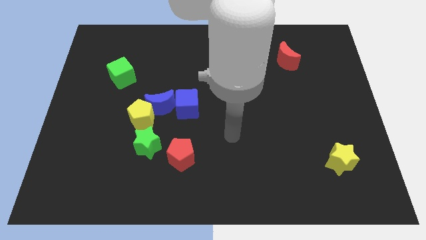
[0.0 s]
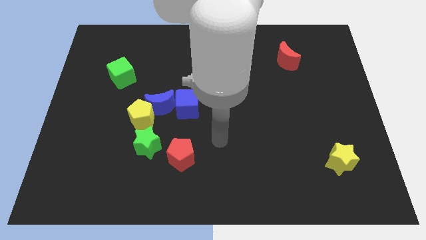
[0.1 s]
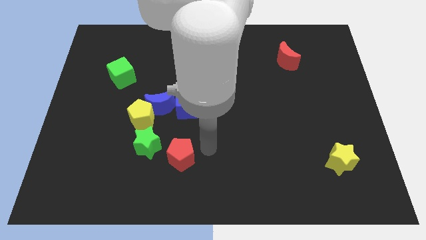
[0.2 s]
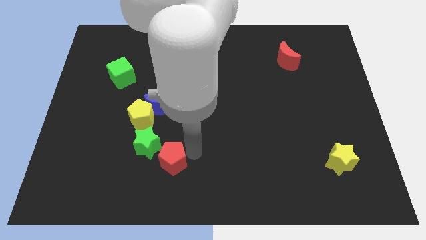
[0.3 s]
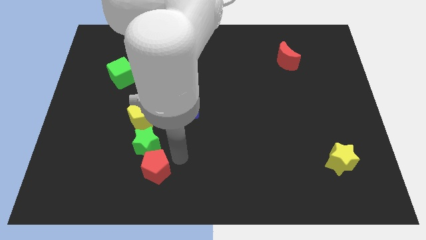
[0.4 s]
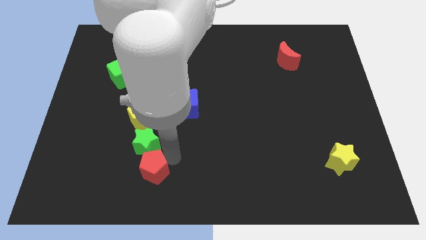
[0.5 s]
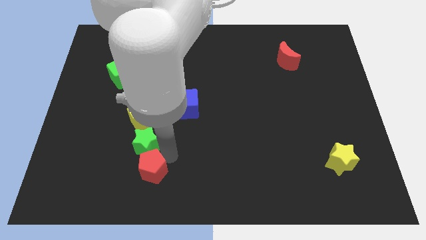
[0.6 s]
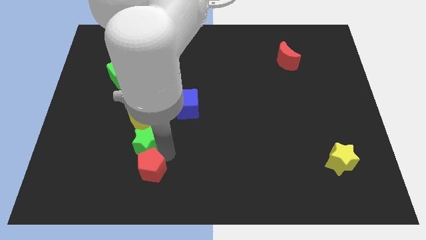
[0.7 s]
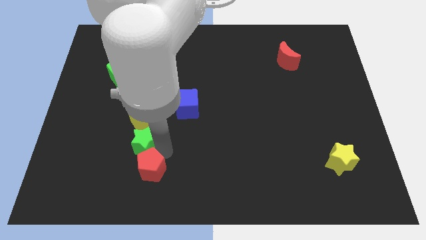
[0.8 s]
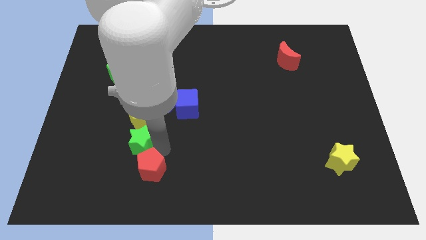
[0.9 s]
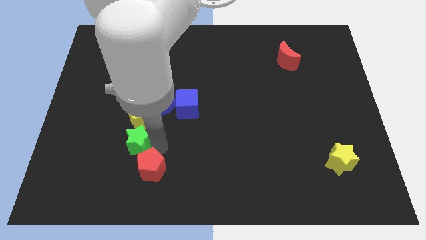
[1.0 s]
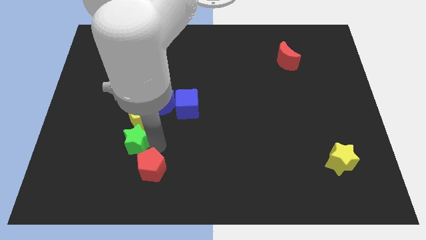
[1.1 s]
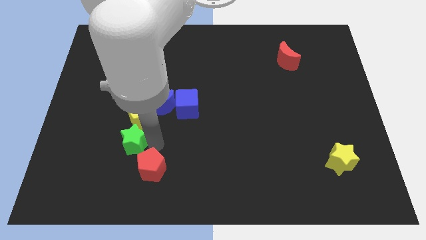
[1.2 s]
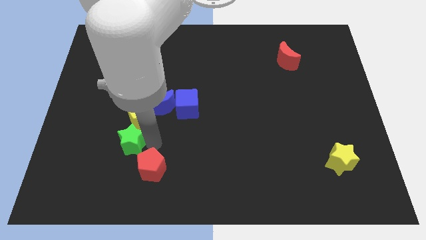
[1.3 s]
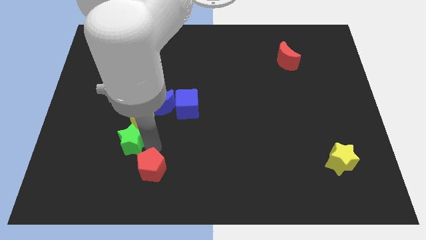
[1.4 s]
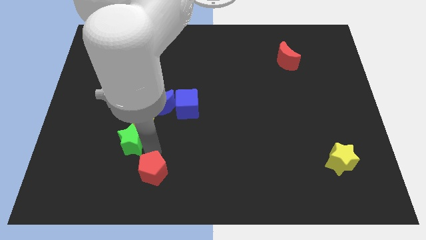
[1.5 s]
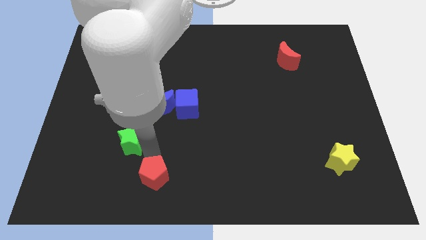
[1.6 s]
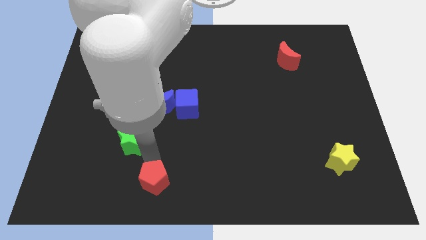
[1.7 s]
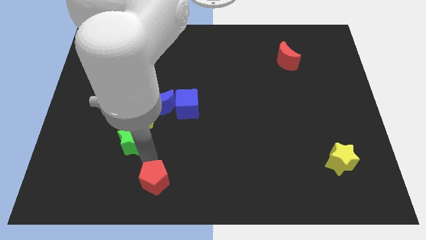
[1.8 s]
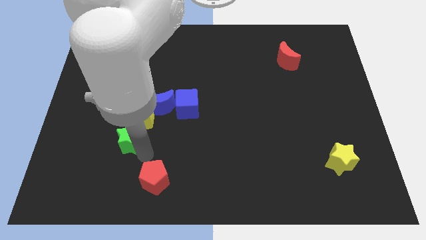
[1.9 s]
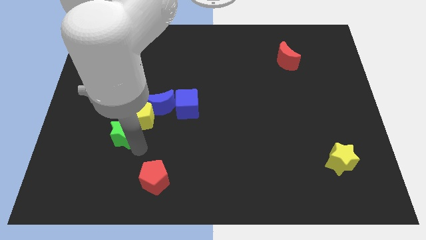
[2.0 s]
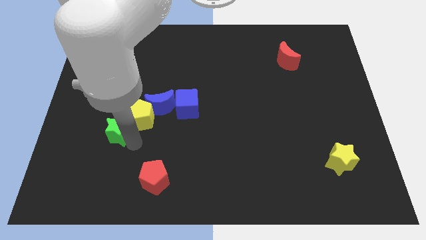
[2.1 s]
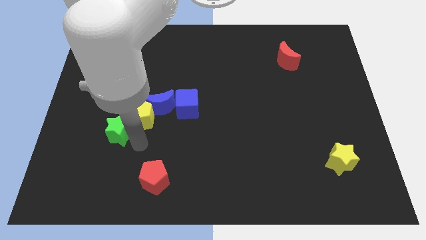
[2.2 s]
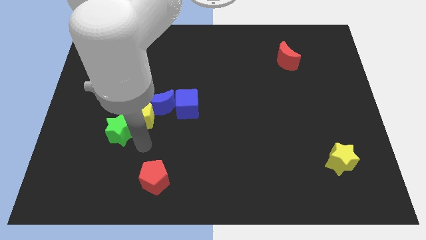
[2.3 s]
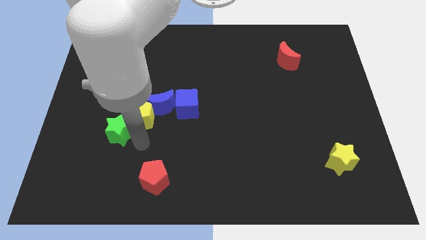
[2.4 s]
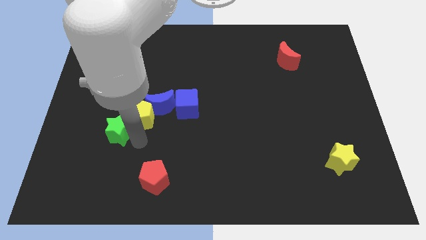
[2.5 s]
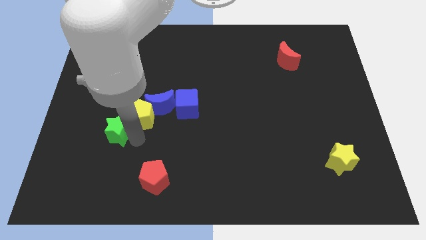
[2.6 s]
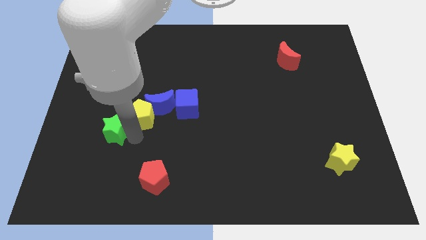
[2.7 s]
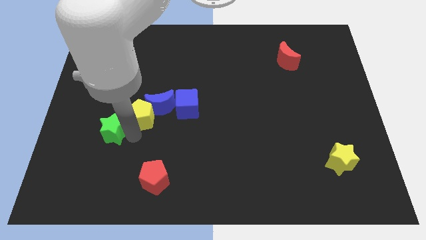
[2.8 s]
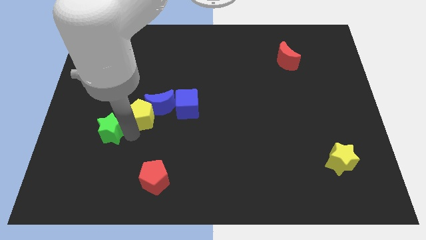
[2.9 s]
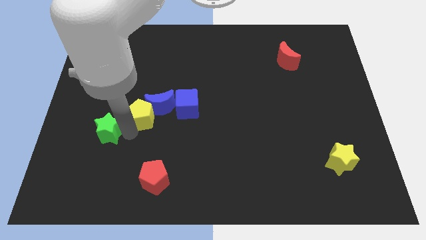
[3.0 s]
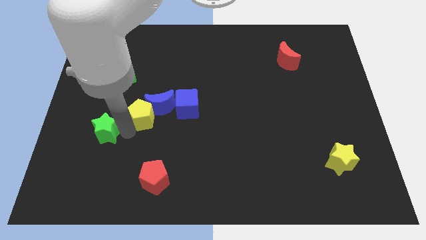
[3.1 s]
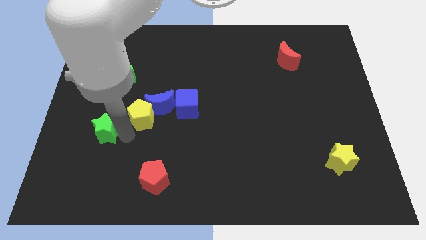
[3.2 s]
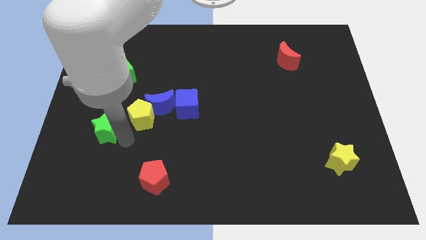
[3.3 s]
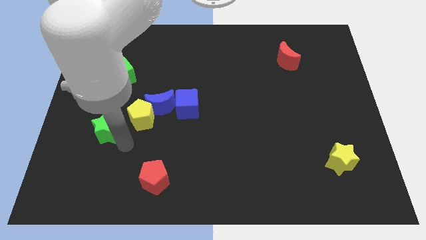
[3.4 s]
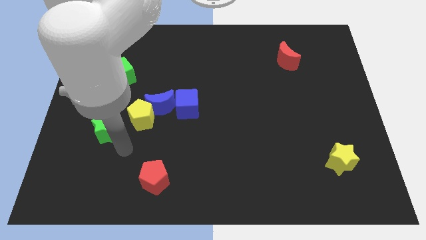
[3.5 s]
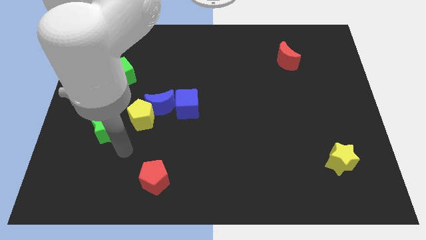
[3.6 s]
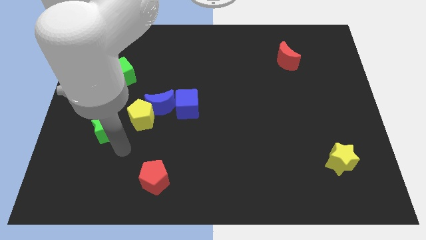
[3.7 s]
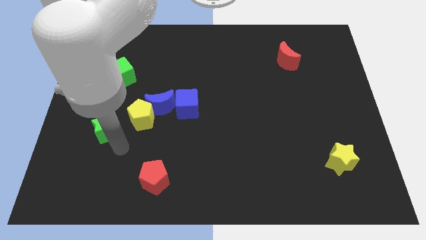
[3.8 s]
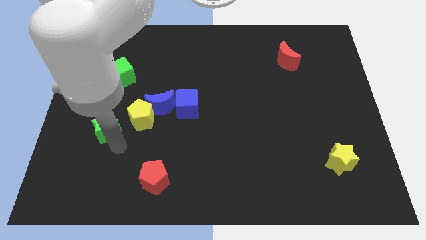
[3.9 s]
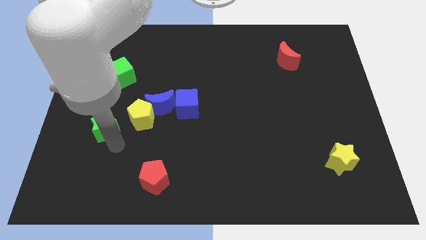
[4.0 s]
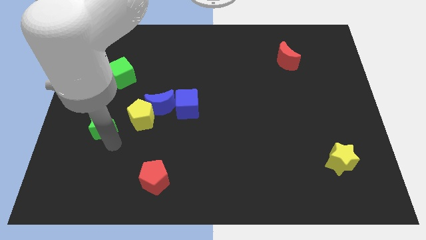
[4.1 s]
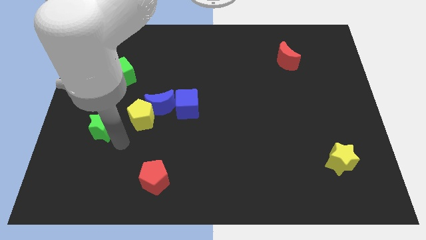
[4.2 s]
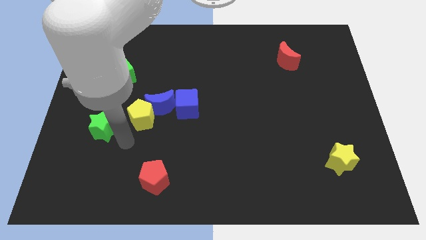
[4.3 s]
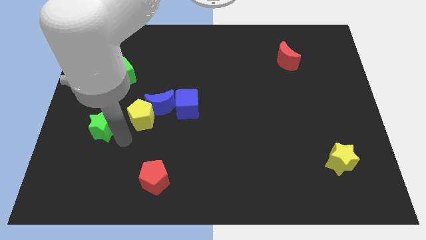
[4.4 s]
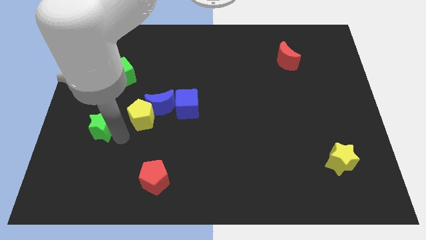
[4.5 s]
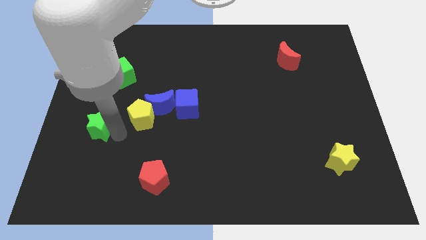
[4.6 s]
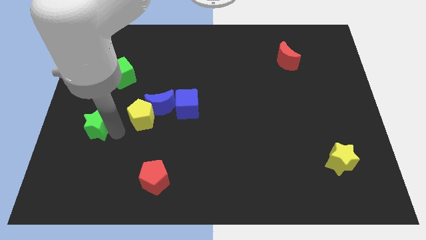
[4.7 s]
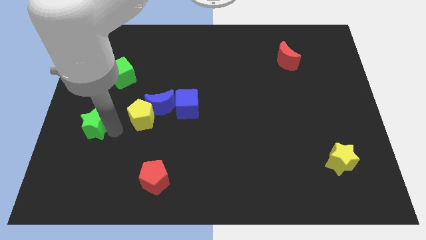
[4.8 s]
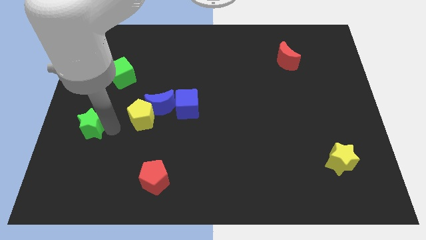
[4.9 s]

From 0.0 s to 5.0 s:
put the green star to the left side

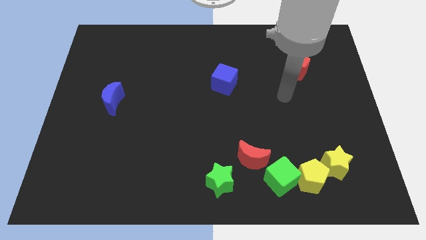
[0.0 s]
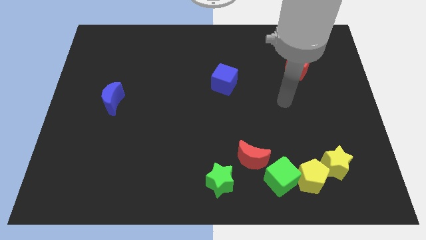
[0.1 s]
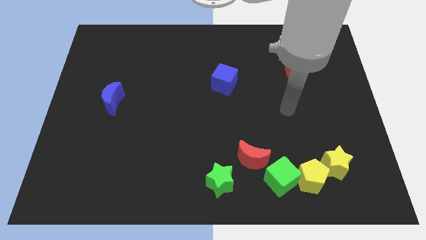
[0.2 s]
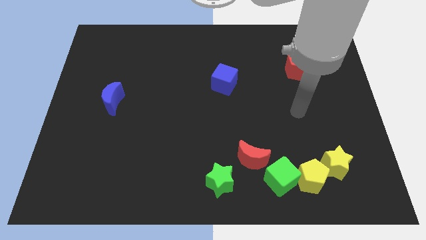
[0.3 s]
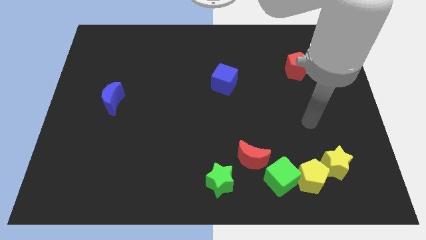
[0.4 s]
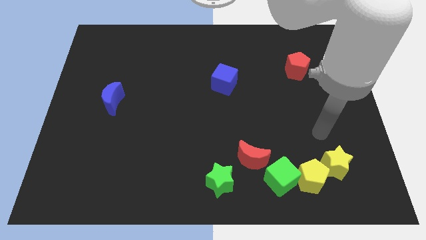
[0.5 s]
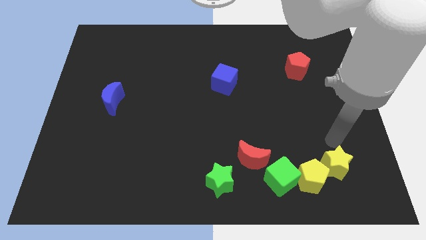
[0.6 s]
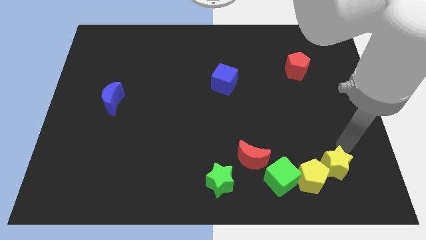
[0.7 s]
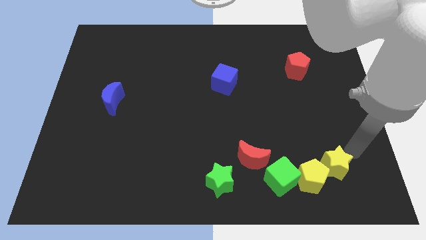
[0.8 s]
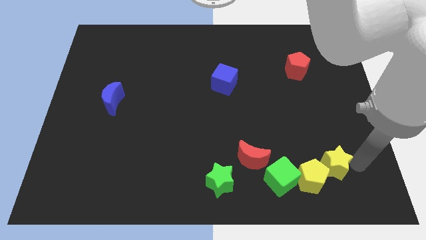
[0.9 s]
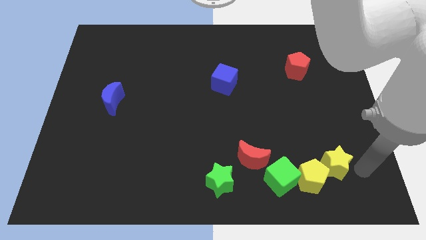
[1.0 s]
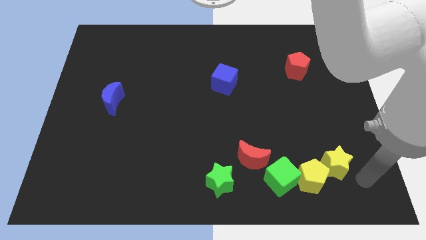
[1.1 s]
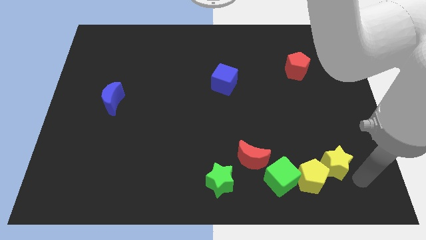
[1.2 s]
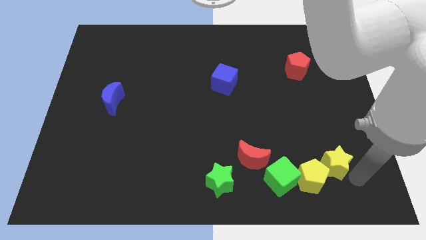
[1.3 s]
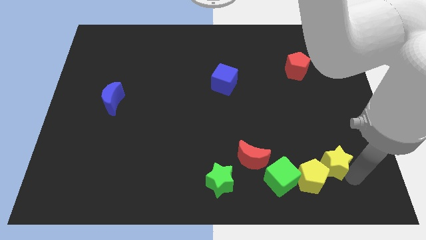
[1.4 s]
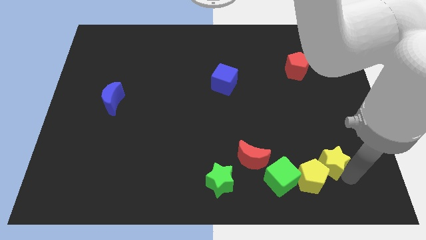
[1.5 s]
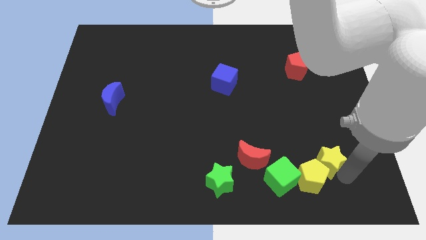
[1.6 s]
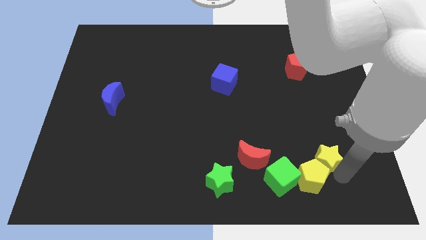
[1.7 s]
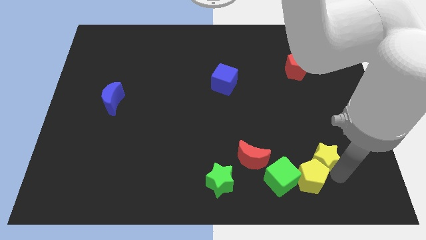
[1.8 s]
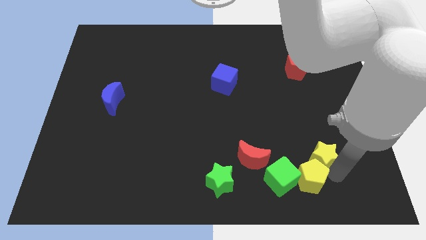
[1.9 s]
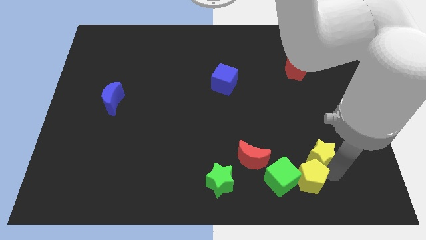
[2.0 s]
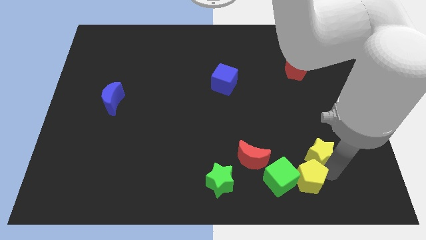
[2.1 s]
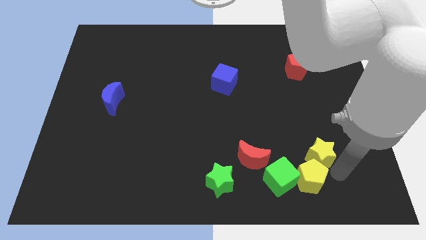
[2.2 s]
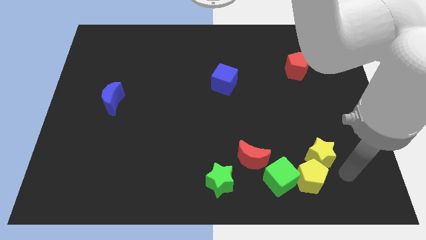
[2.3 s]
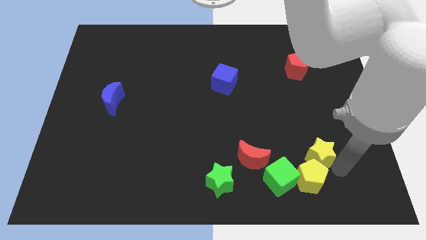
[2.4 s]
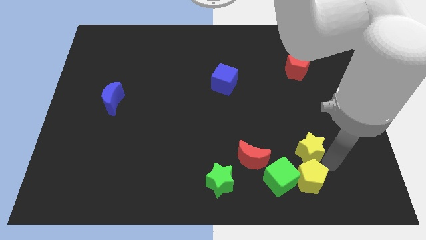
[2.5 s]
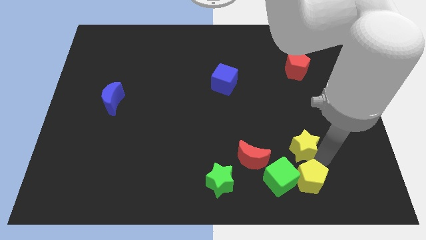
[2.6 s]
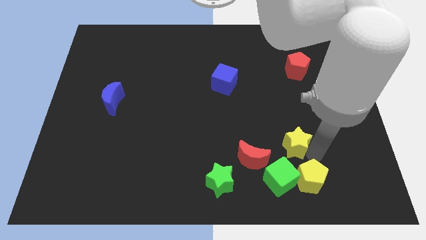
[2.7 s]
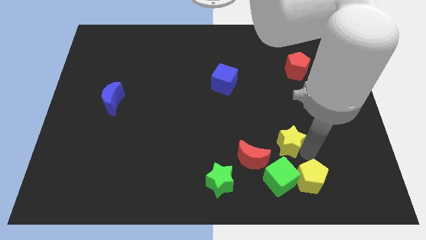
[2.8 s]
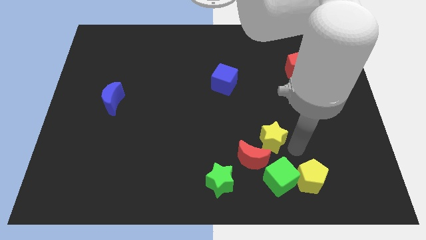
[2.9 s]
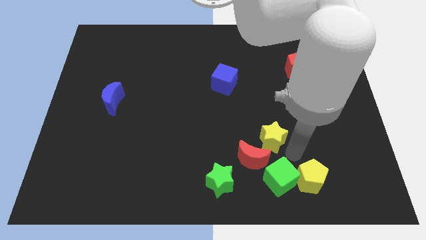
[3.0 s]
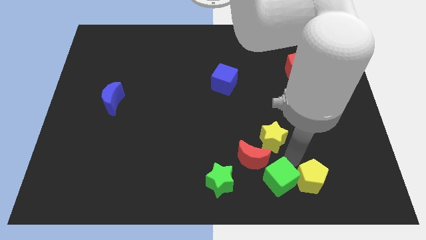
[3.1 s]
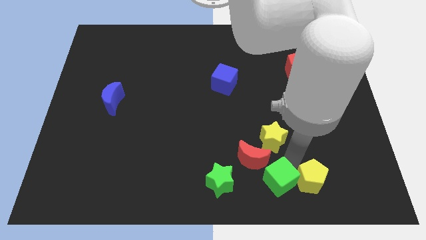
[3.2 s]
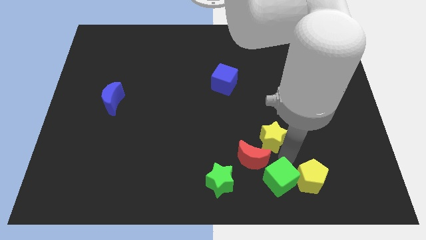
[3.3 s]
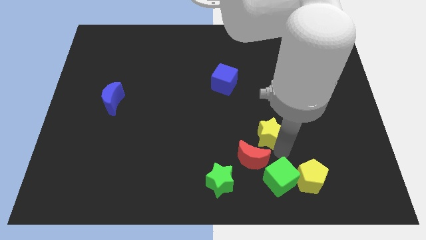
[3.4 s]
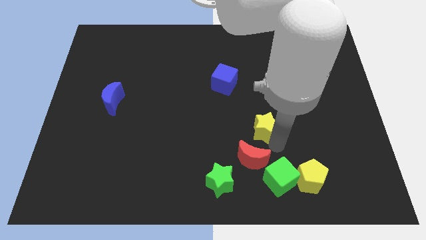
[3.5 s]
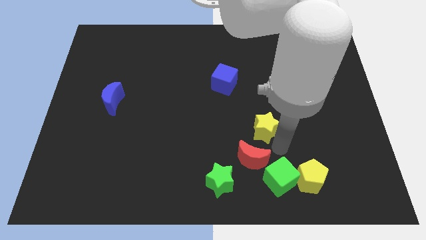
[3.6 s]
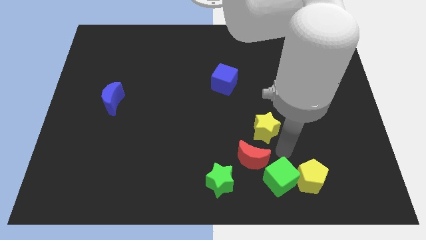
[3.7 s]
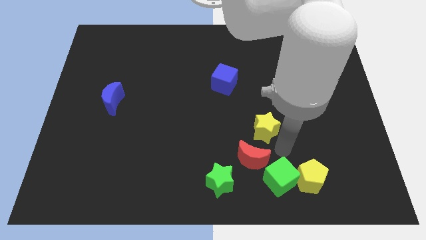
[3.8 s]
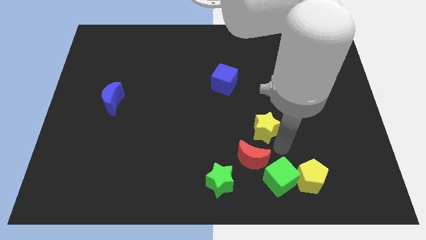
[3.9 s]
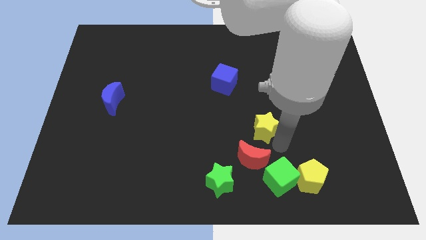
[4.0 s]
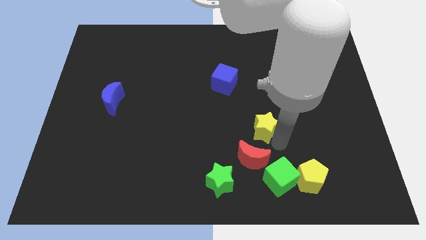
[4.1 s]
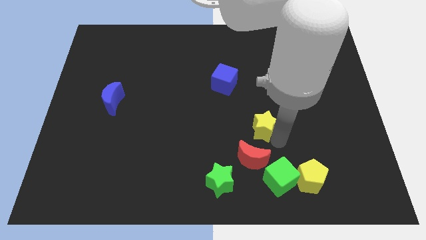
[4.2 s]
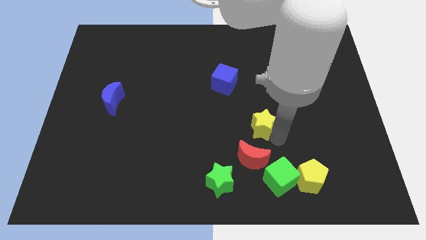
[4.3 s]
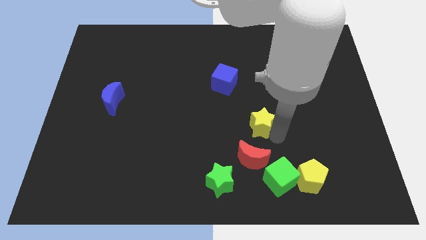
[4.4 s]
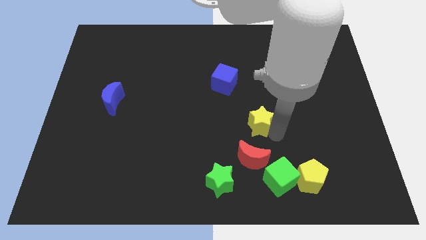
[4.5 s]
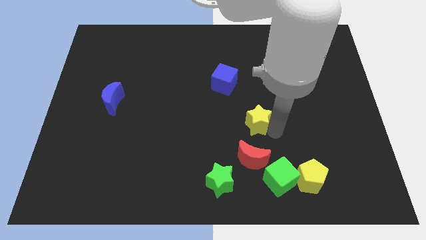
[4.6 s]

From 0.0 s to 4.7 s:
put the yellow star to the middle
